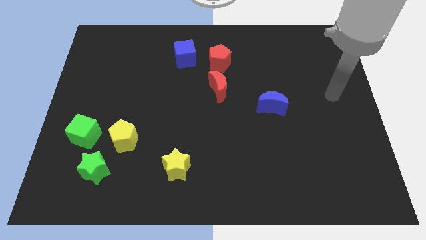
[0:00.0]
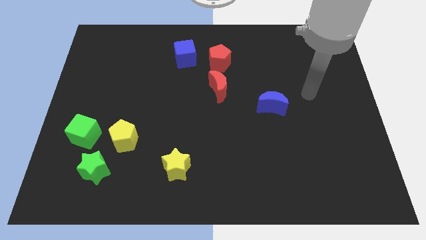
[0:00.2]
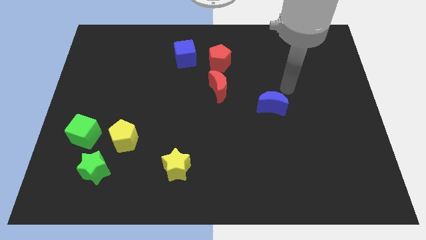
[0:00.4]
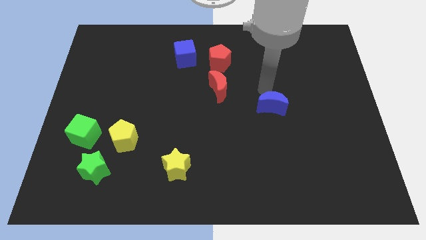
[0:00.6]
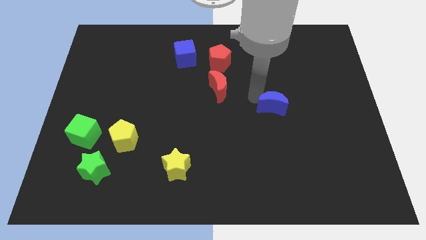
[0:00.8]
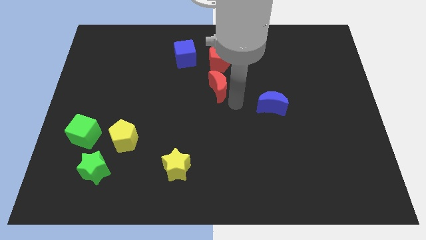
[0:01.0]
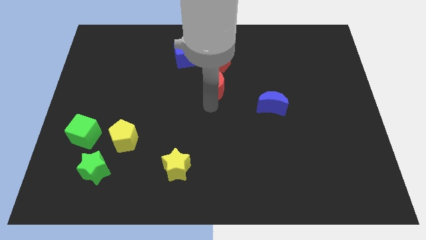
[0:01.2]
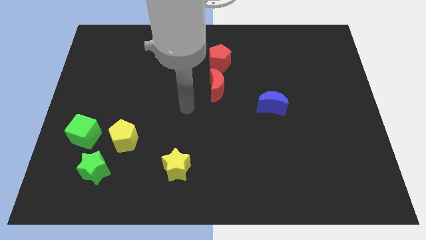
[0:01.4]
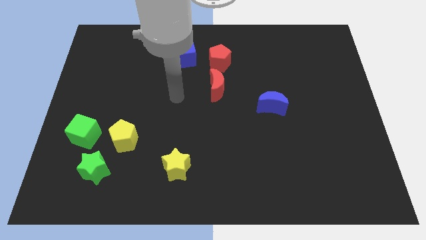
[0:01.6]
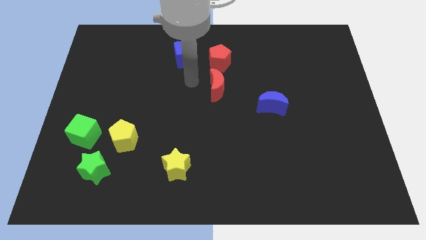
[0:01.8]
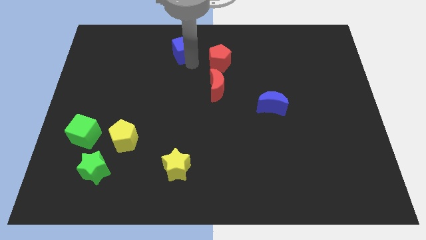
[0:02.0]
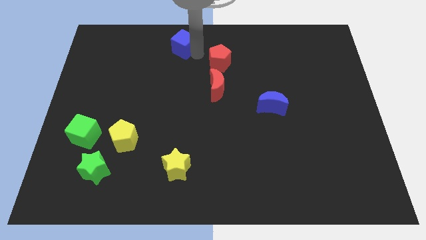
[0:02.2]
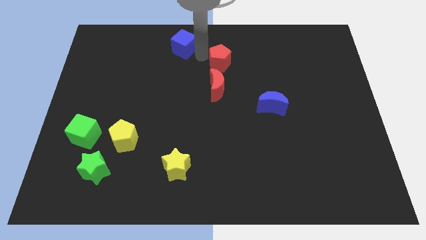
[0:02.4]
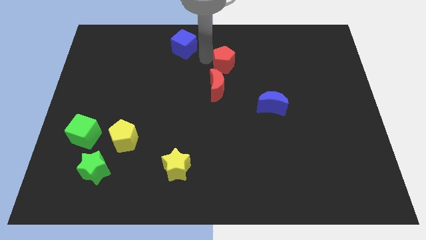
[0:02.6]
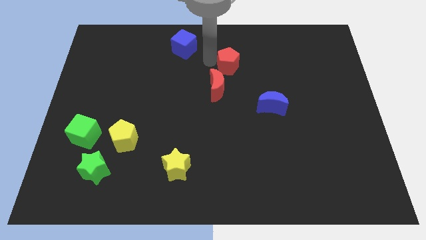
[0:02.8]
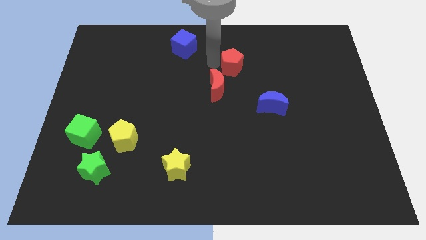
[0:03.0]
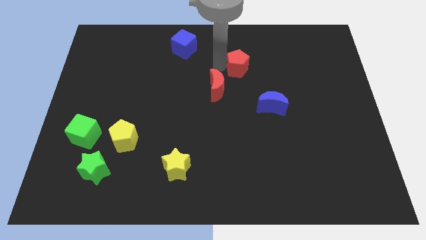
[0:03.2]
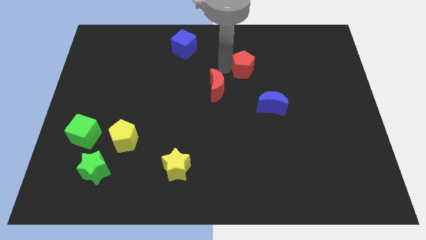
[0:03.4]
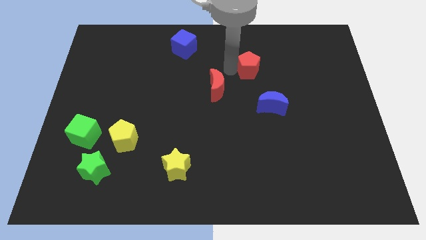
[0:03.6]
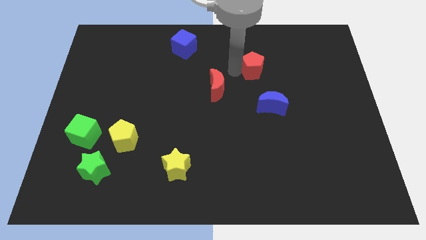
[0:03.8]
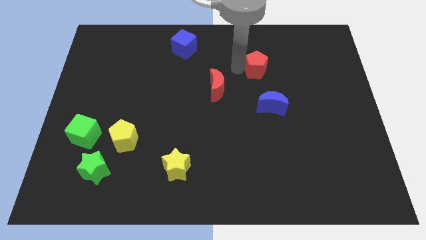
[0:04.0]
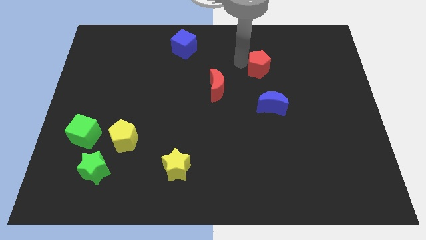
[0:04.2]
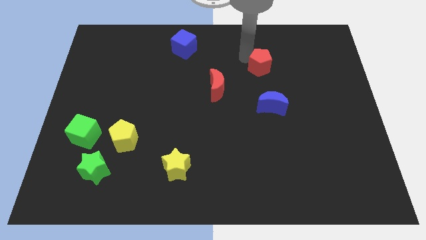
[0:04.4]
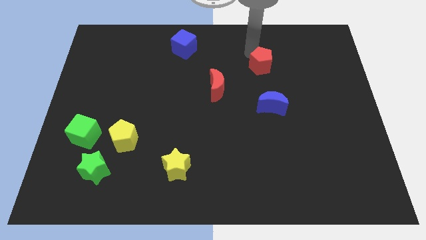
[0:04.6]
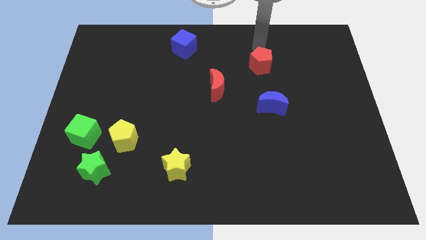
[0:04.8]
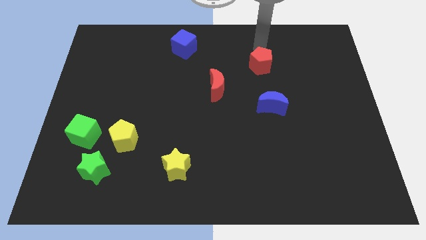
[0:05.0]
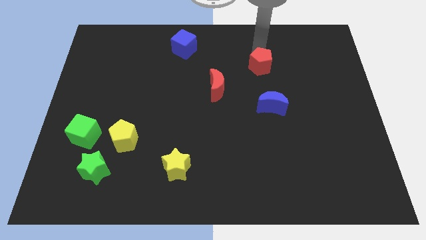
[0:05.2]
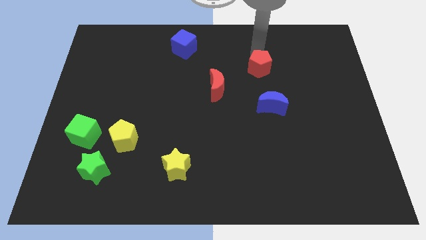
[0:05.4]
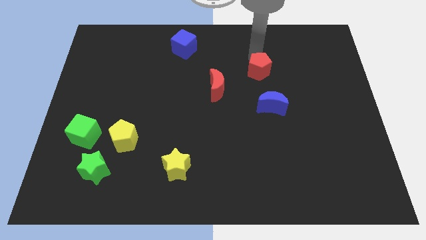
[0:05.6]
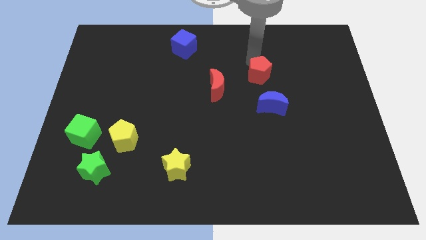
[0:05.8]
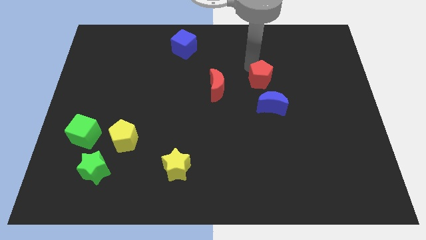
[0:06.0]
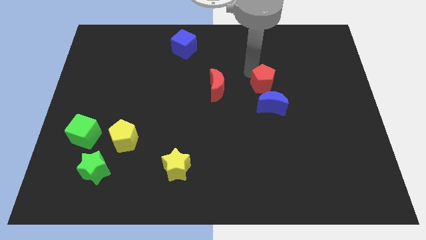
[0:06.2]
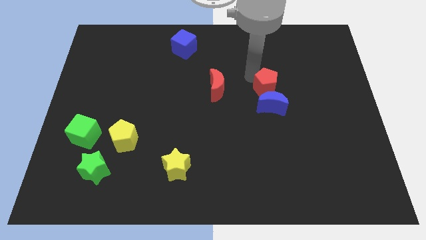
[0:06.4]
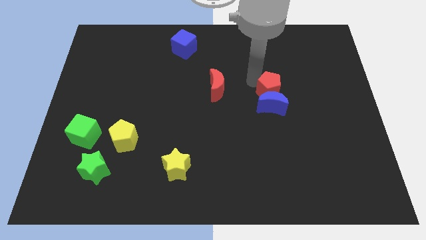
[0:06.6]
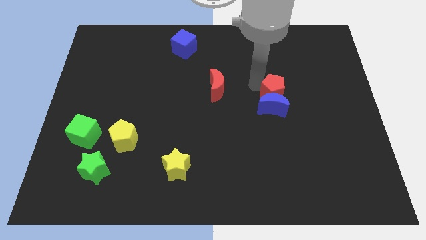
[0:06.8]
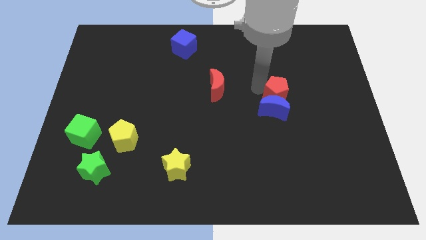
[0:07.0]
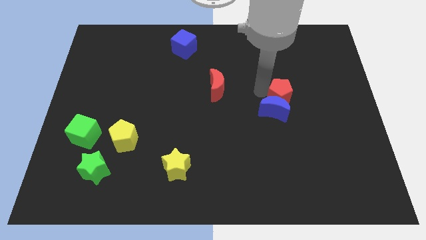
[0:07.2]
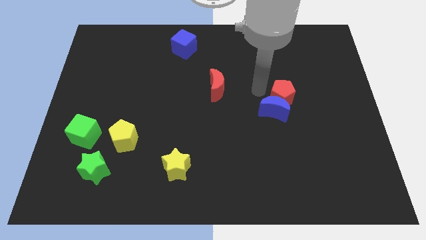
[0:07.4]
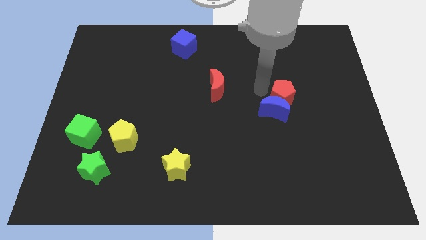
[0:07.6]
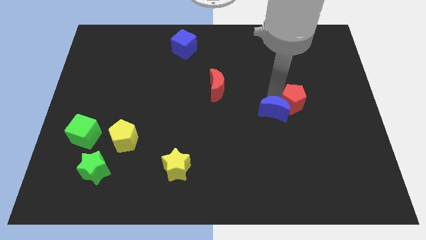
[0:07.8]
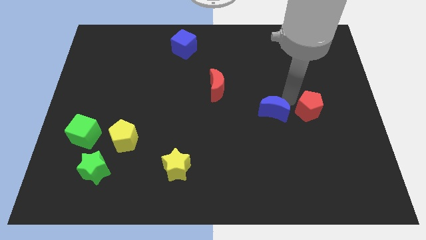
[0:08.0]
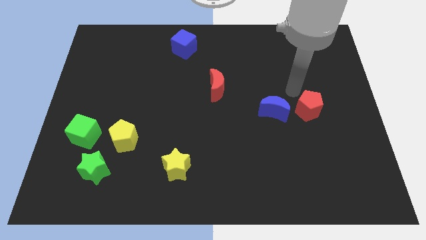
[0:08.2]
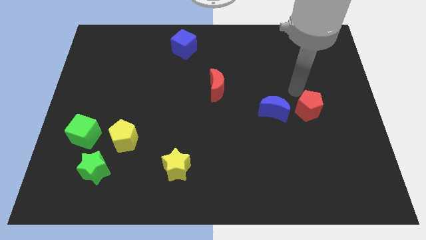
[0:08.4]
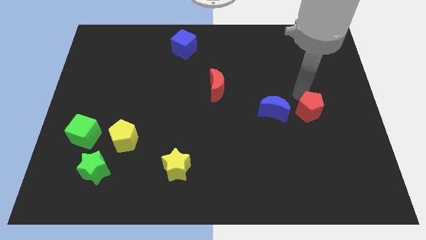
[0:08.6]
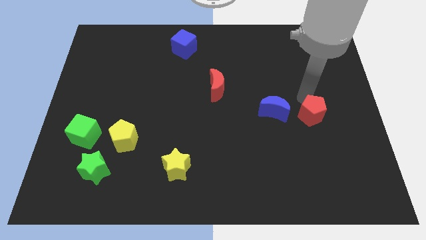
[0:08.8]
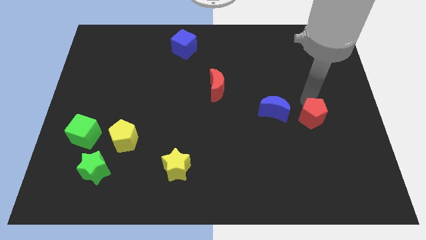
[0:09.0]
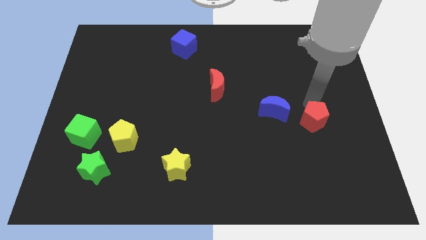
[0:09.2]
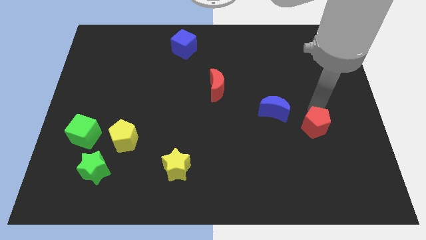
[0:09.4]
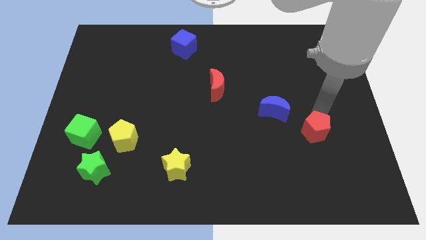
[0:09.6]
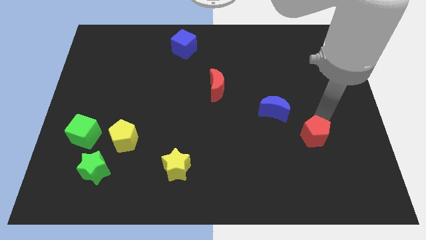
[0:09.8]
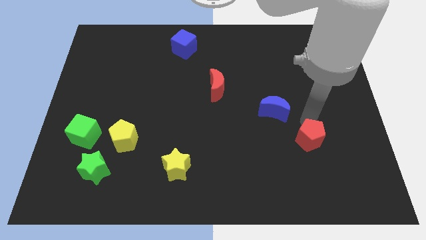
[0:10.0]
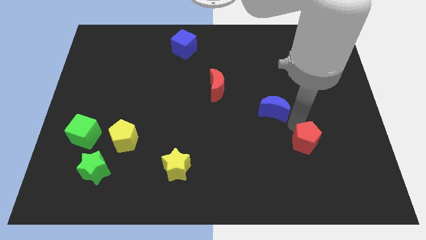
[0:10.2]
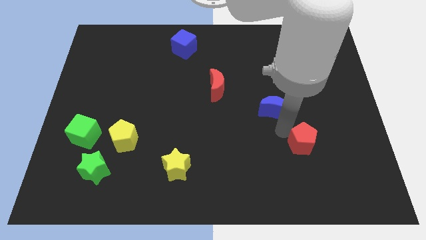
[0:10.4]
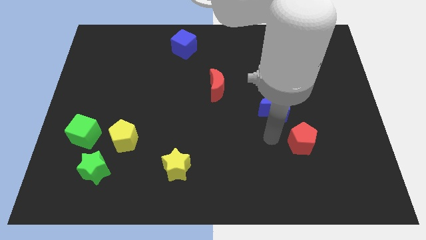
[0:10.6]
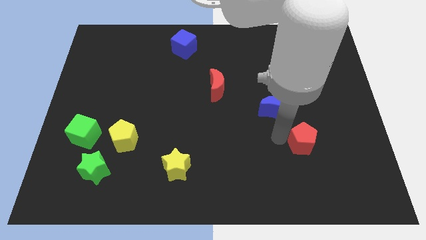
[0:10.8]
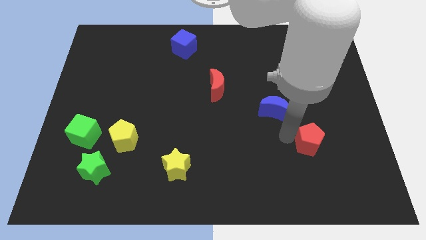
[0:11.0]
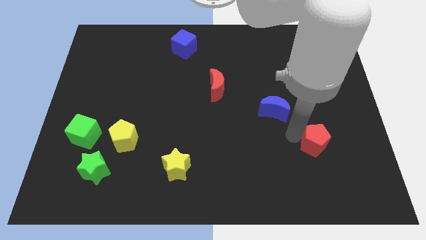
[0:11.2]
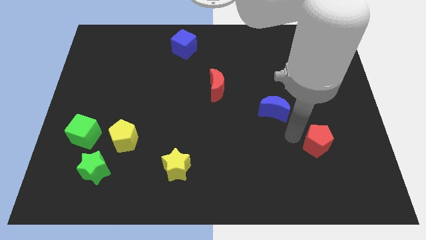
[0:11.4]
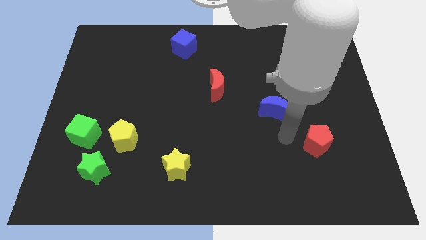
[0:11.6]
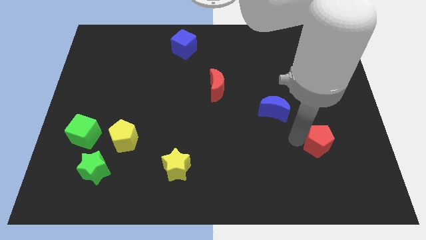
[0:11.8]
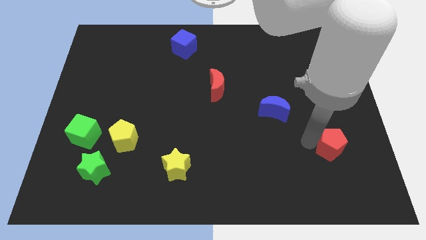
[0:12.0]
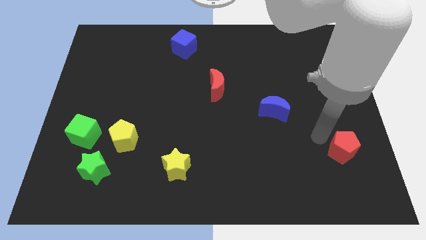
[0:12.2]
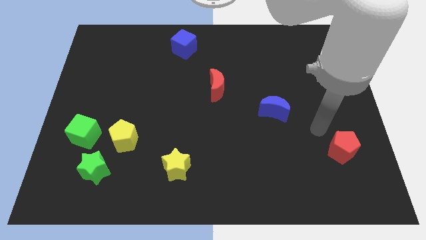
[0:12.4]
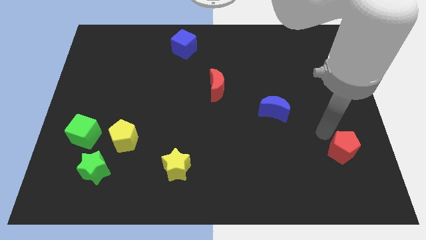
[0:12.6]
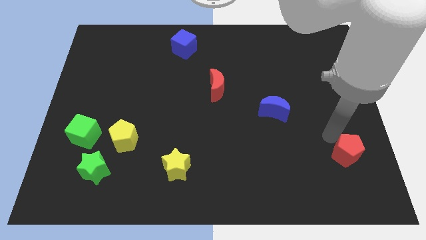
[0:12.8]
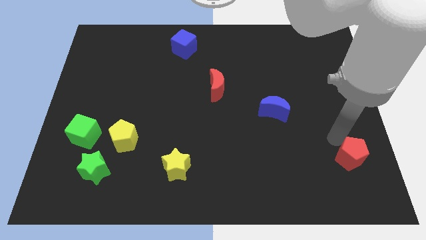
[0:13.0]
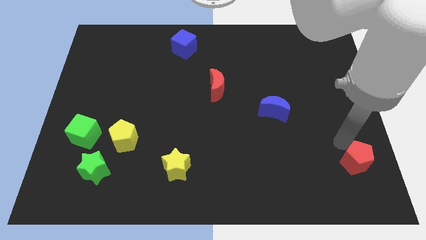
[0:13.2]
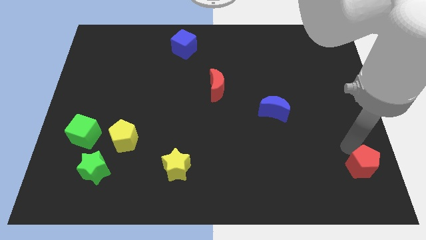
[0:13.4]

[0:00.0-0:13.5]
put the red pentagon to the bottom right corner
